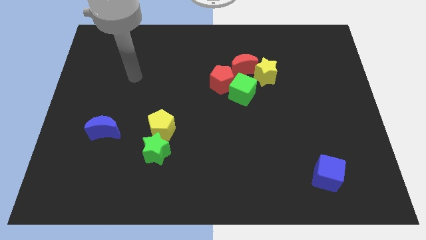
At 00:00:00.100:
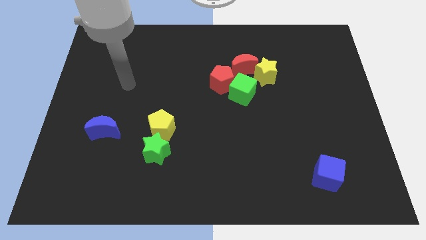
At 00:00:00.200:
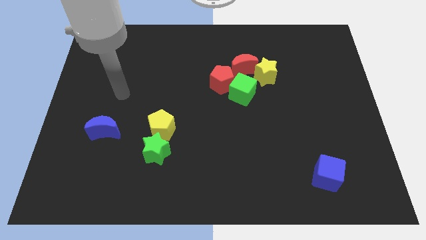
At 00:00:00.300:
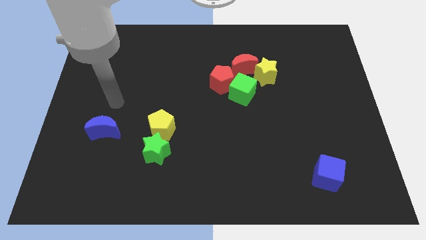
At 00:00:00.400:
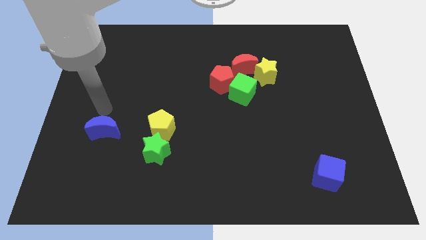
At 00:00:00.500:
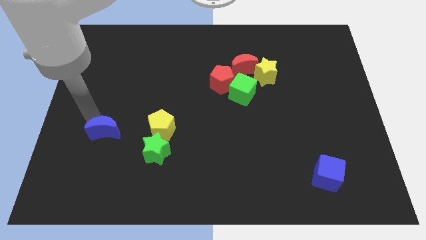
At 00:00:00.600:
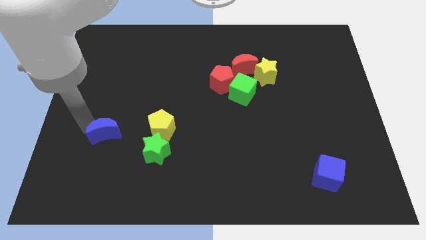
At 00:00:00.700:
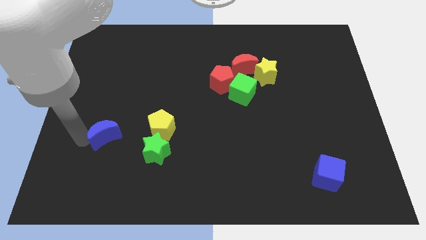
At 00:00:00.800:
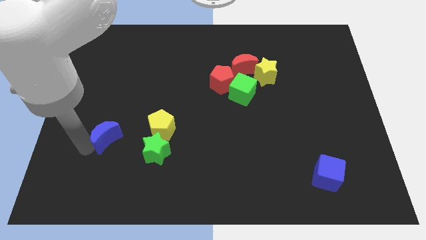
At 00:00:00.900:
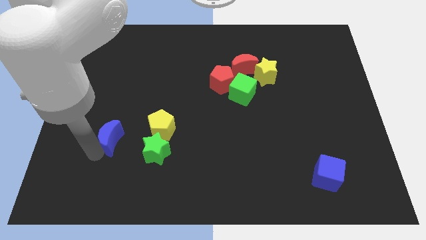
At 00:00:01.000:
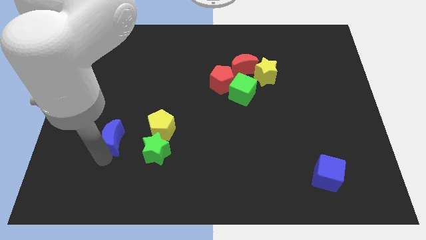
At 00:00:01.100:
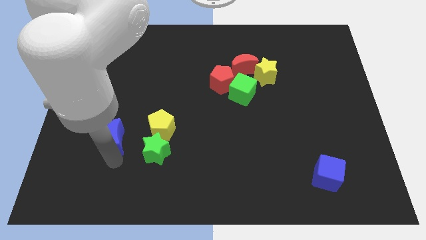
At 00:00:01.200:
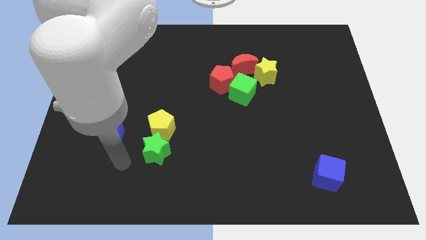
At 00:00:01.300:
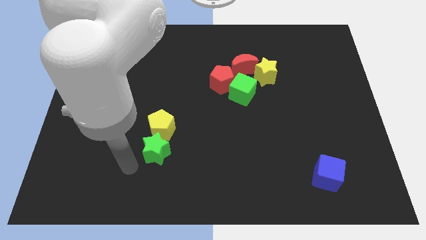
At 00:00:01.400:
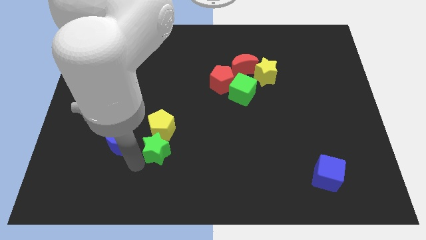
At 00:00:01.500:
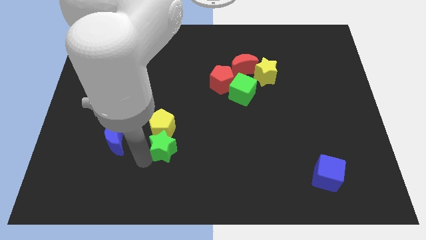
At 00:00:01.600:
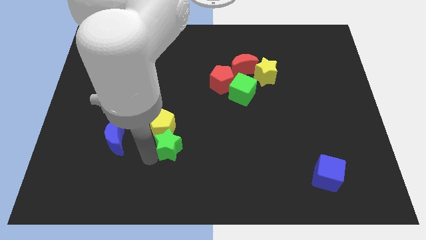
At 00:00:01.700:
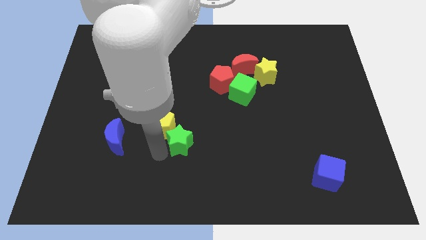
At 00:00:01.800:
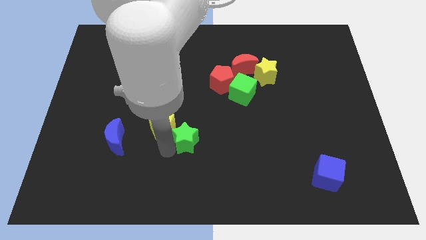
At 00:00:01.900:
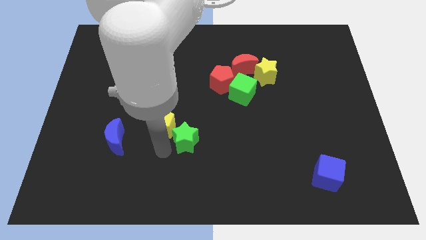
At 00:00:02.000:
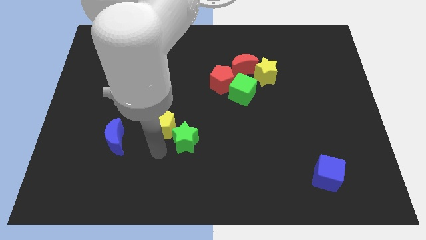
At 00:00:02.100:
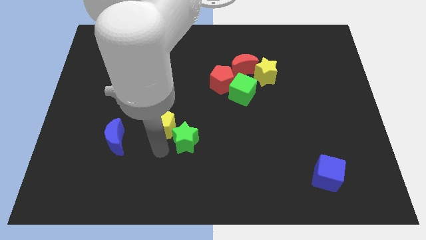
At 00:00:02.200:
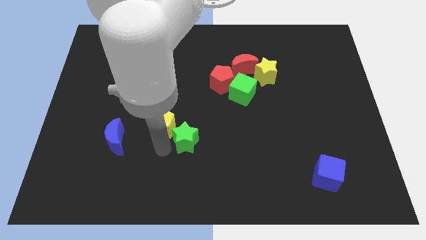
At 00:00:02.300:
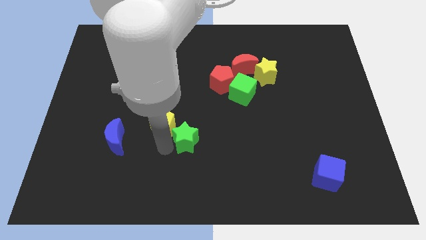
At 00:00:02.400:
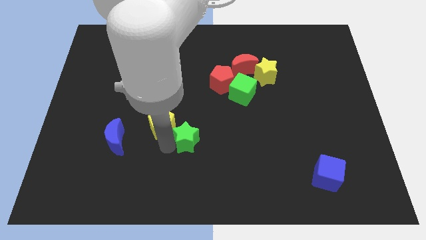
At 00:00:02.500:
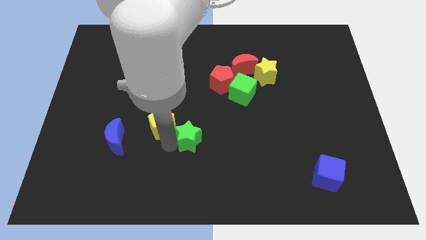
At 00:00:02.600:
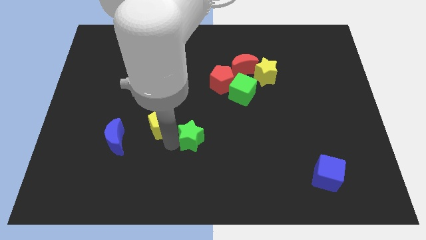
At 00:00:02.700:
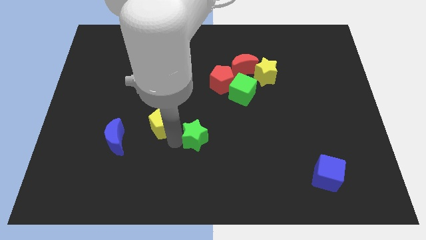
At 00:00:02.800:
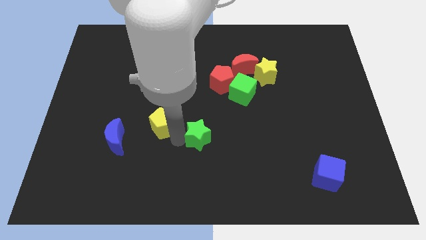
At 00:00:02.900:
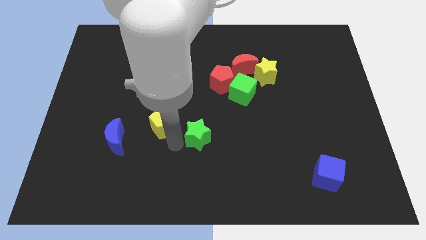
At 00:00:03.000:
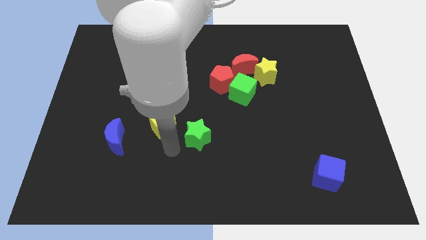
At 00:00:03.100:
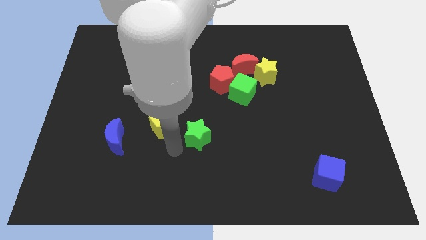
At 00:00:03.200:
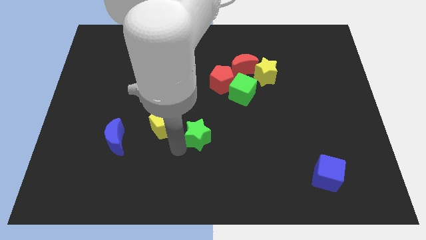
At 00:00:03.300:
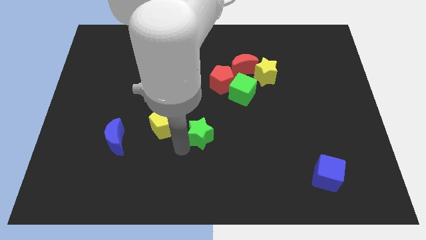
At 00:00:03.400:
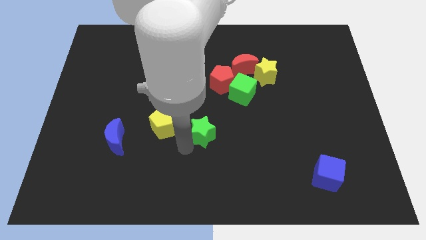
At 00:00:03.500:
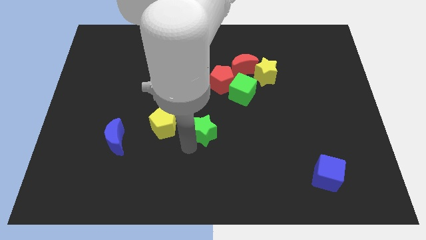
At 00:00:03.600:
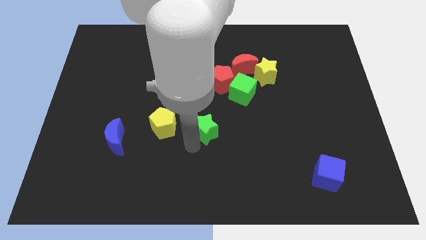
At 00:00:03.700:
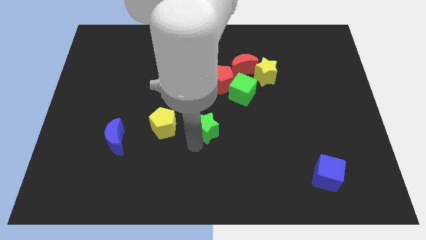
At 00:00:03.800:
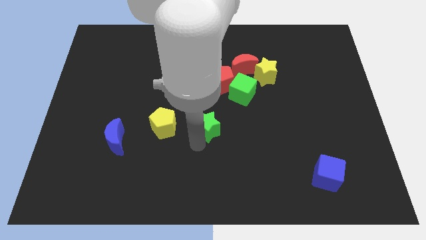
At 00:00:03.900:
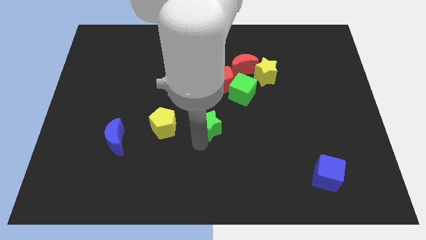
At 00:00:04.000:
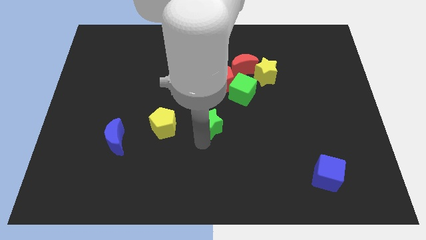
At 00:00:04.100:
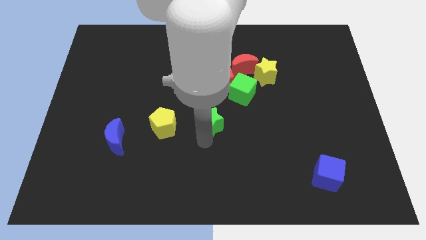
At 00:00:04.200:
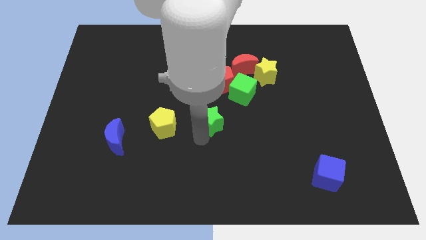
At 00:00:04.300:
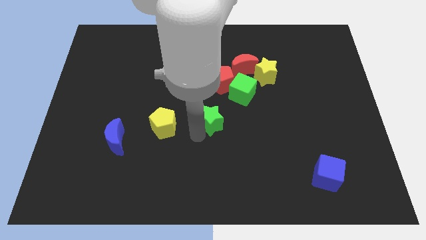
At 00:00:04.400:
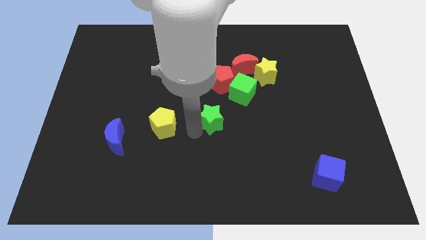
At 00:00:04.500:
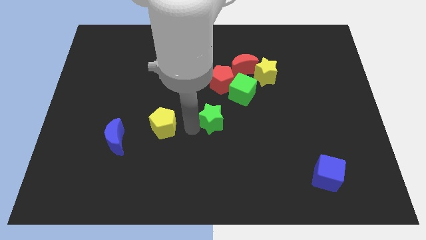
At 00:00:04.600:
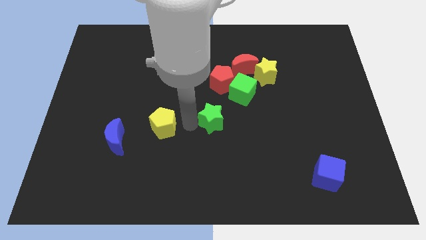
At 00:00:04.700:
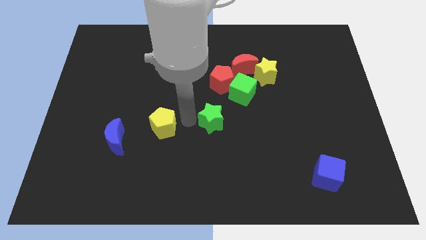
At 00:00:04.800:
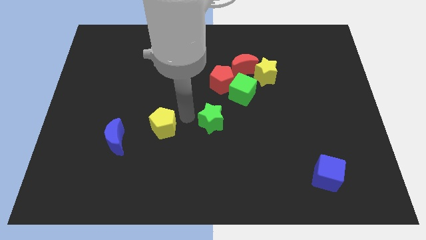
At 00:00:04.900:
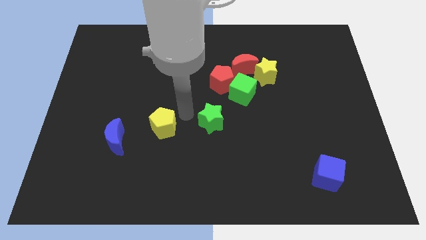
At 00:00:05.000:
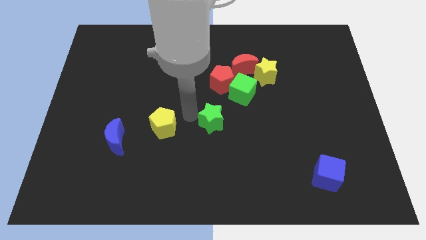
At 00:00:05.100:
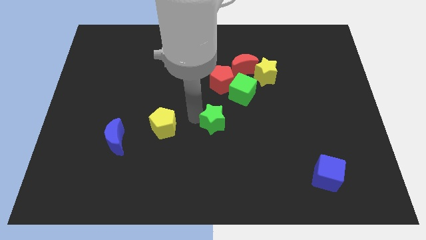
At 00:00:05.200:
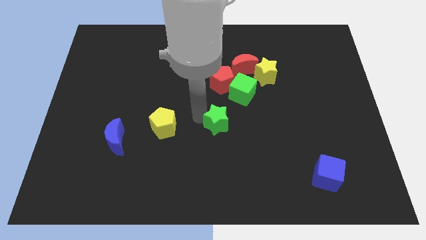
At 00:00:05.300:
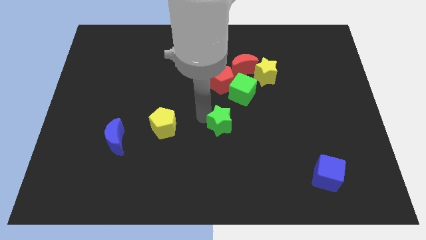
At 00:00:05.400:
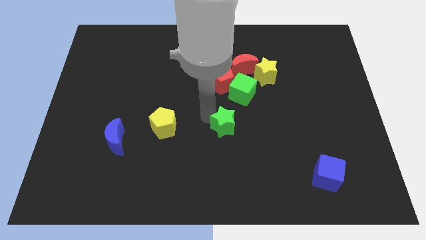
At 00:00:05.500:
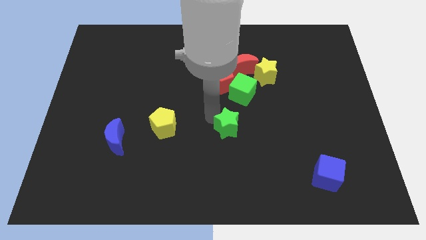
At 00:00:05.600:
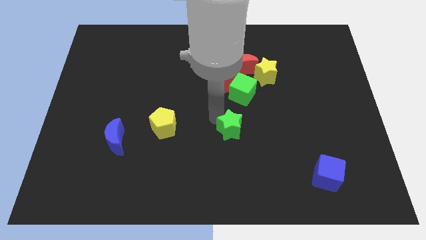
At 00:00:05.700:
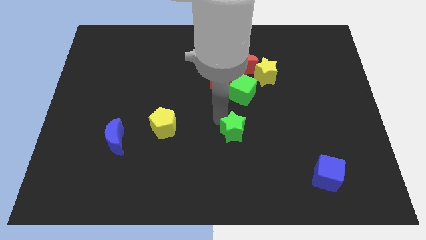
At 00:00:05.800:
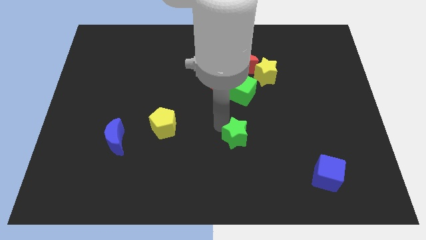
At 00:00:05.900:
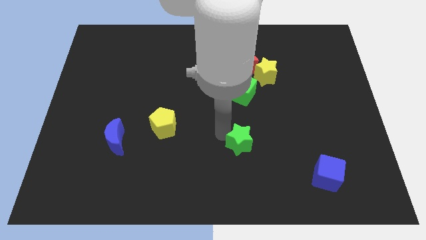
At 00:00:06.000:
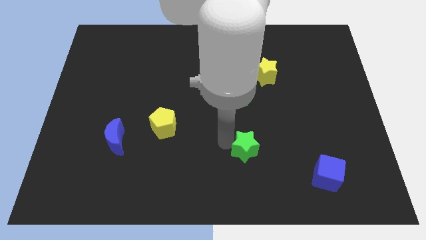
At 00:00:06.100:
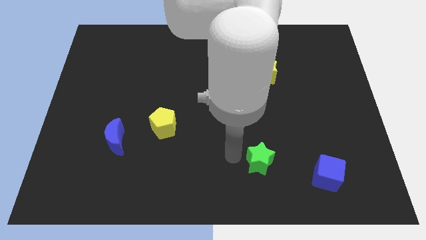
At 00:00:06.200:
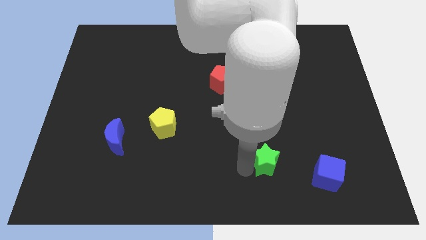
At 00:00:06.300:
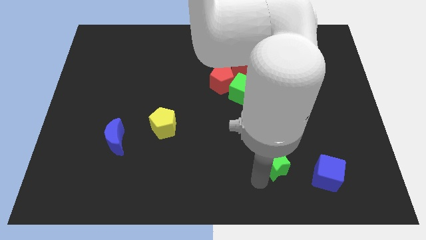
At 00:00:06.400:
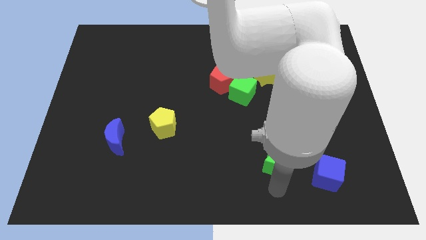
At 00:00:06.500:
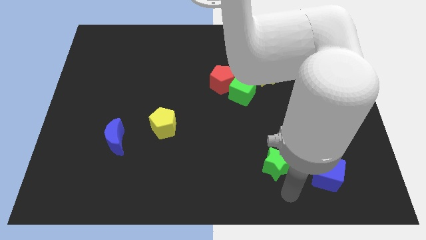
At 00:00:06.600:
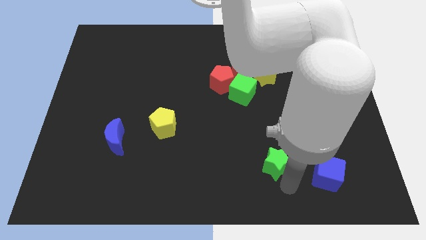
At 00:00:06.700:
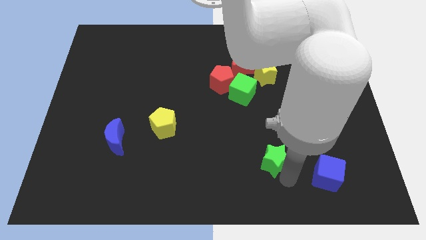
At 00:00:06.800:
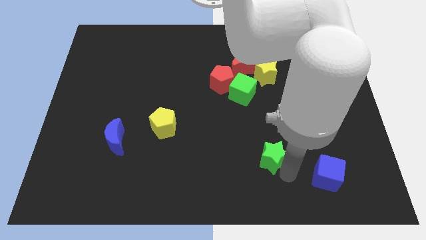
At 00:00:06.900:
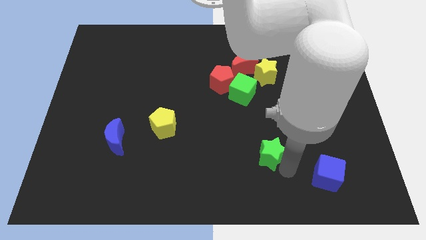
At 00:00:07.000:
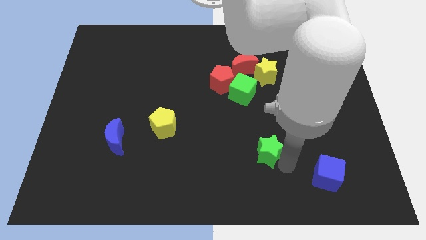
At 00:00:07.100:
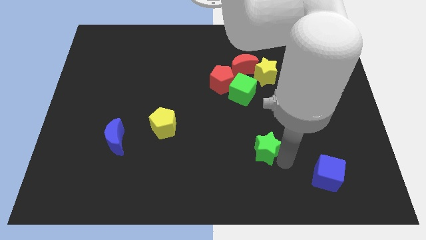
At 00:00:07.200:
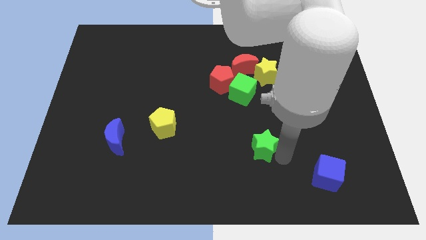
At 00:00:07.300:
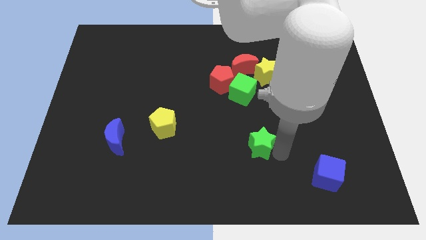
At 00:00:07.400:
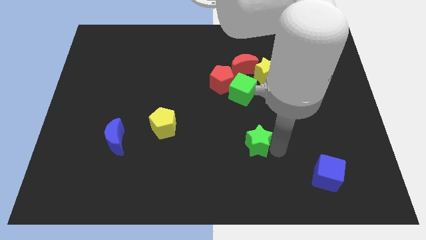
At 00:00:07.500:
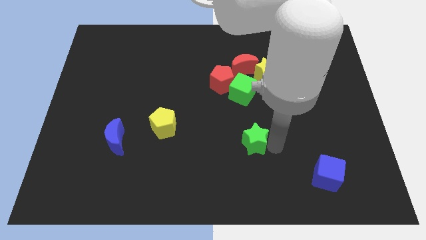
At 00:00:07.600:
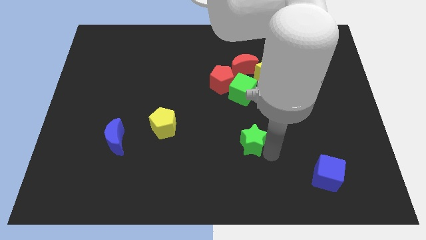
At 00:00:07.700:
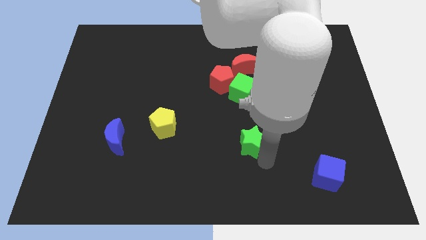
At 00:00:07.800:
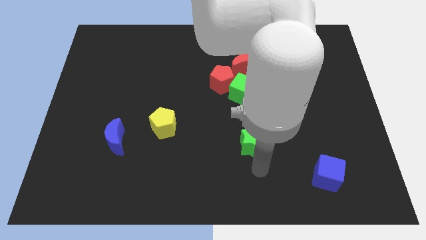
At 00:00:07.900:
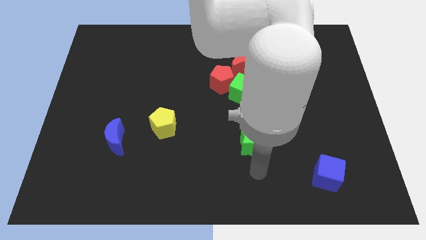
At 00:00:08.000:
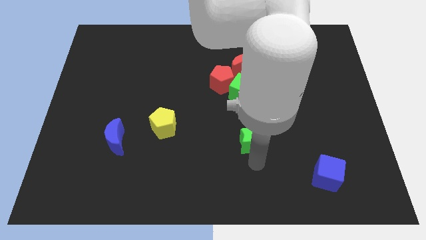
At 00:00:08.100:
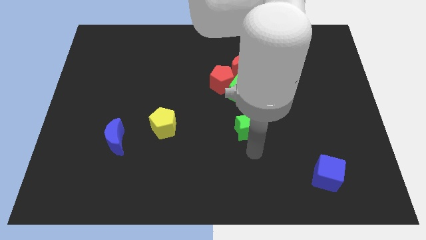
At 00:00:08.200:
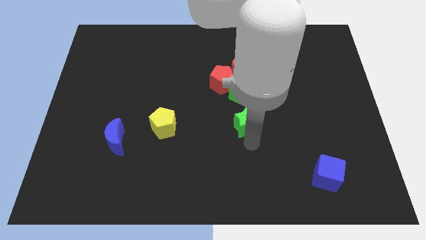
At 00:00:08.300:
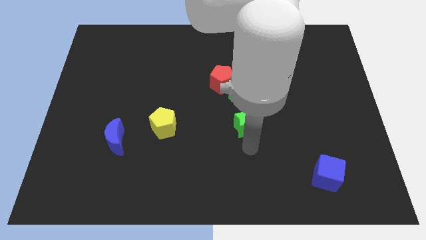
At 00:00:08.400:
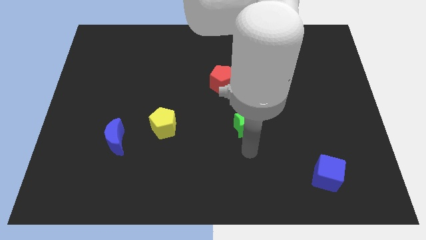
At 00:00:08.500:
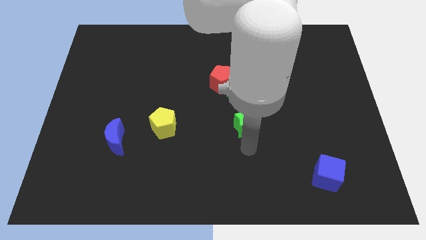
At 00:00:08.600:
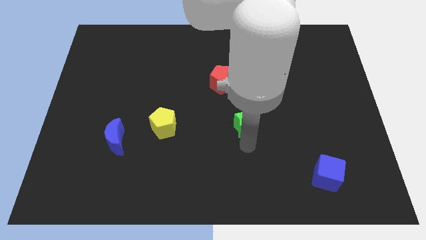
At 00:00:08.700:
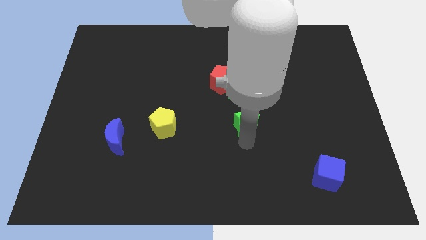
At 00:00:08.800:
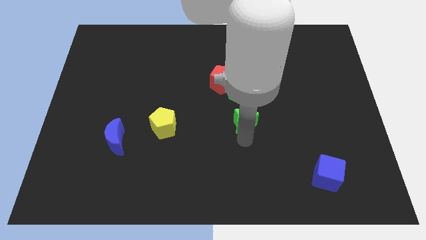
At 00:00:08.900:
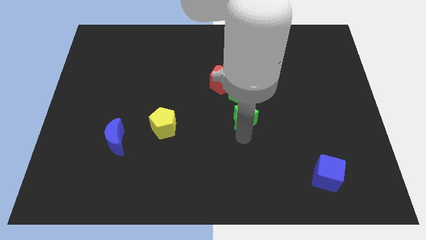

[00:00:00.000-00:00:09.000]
move the green star to the bottom side of the red moon
